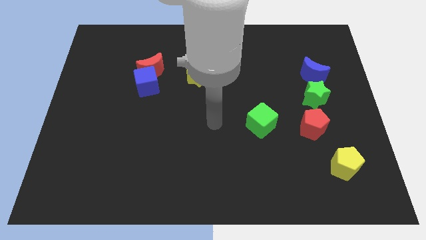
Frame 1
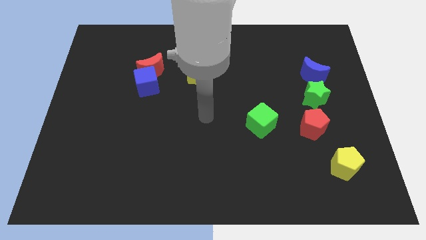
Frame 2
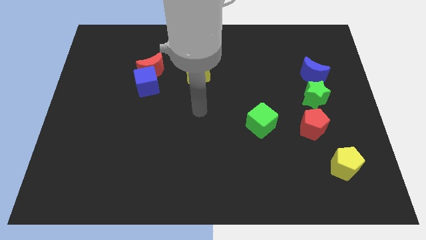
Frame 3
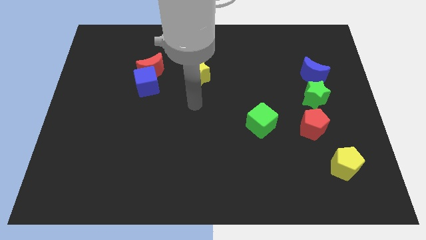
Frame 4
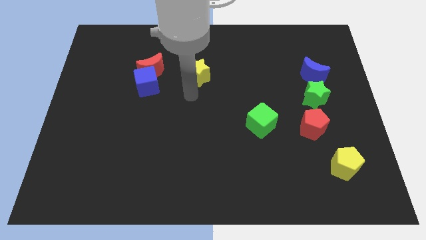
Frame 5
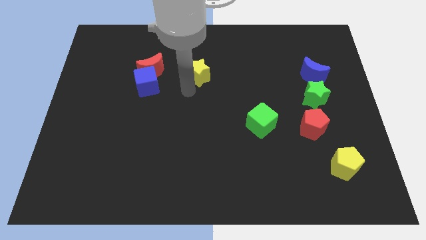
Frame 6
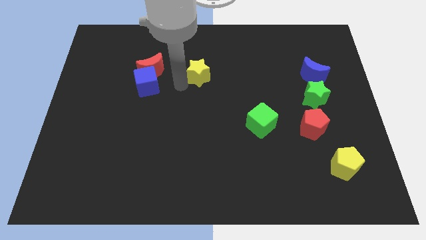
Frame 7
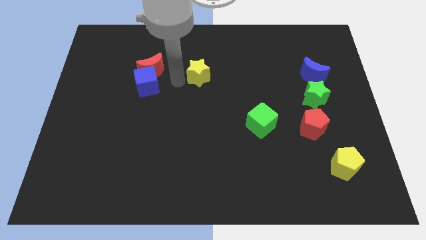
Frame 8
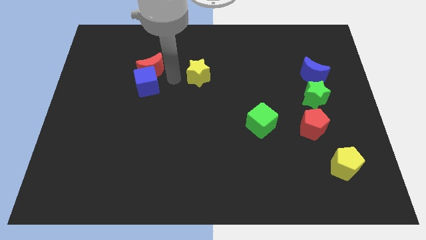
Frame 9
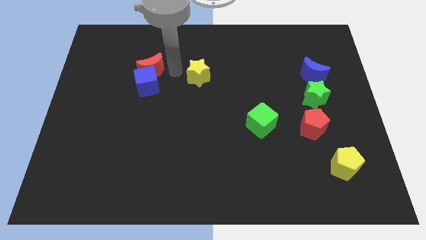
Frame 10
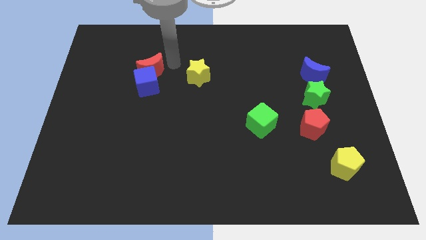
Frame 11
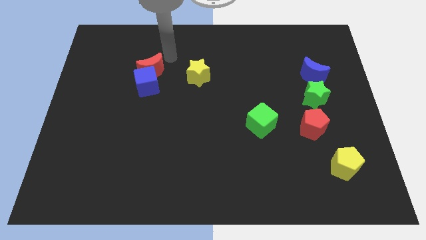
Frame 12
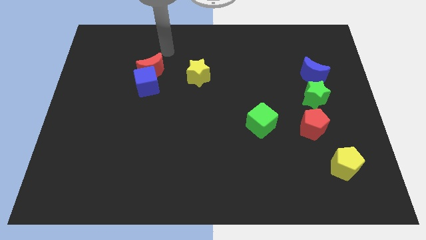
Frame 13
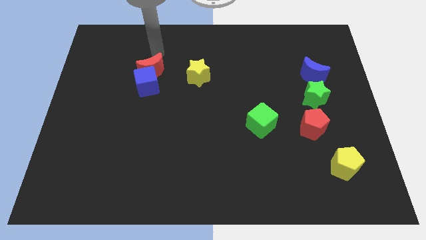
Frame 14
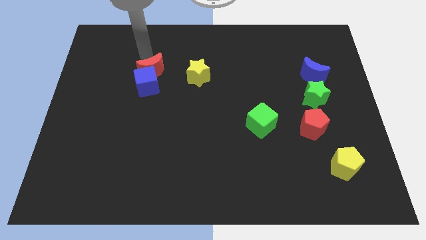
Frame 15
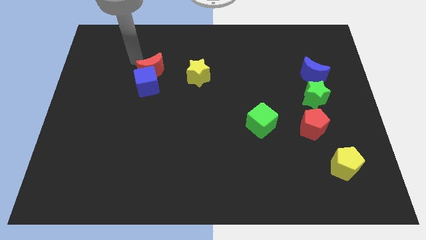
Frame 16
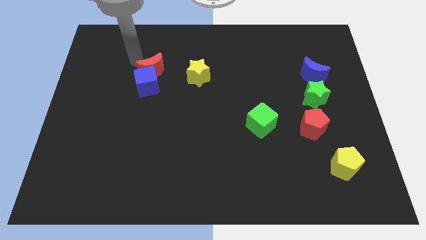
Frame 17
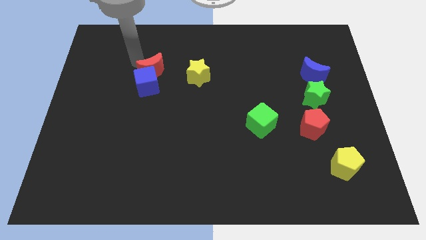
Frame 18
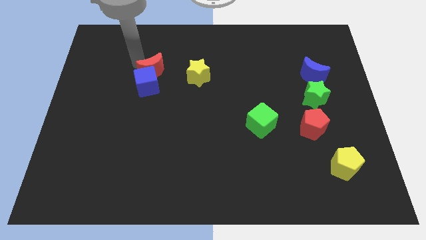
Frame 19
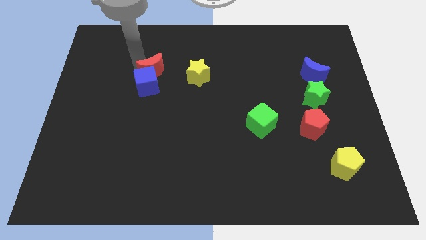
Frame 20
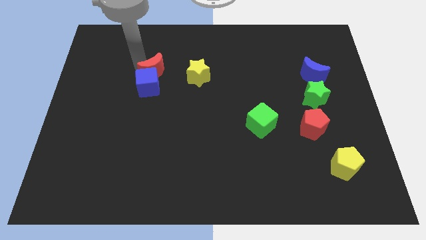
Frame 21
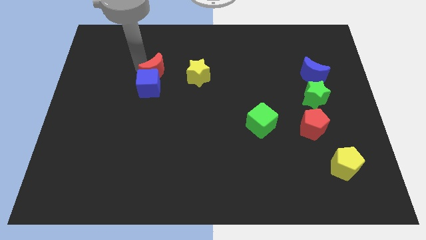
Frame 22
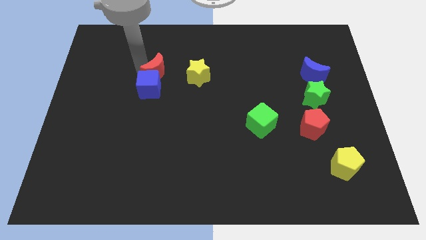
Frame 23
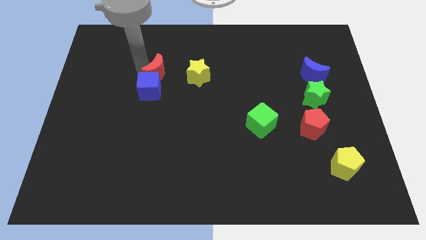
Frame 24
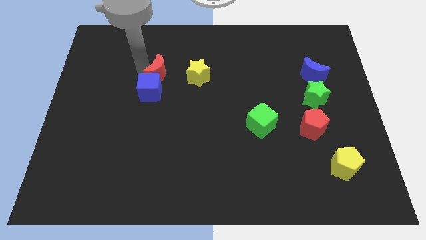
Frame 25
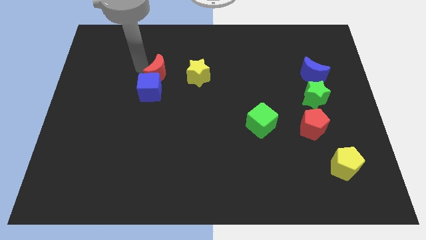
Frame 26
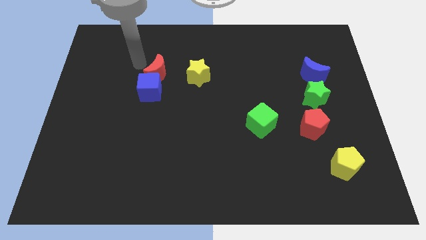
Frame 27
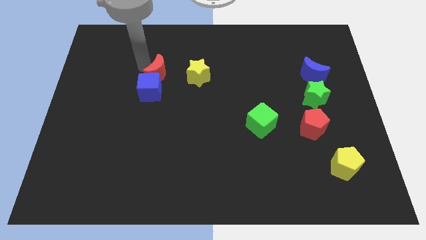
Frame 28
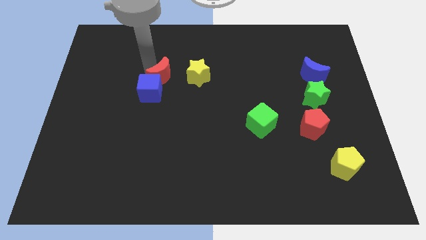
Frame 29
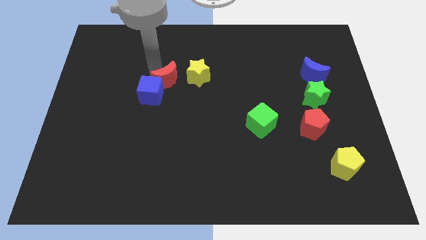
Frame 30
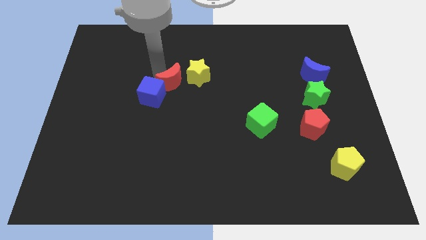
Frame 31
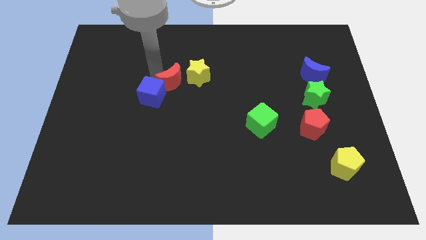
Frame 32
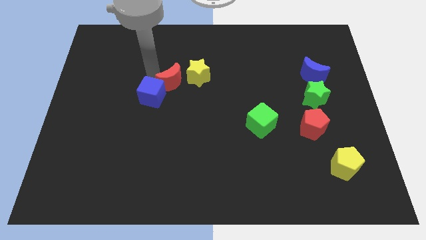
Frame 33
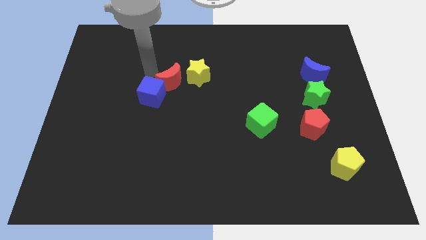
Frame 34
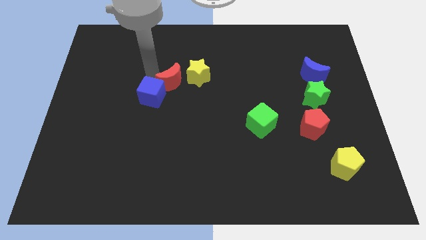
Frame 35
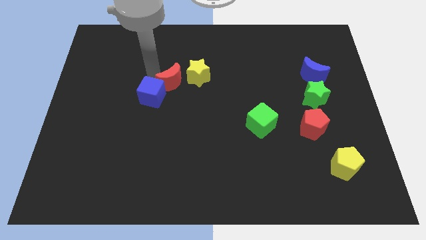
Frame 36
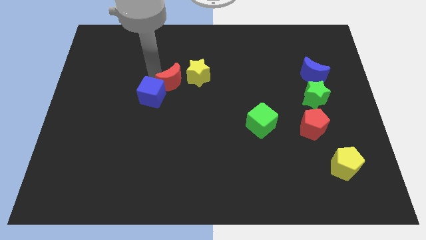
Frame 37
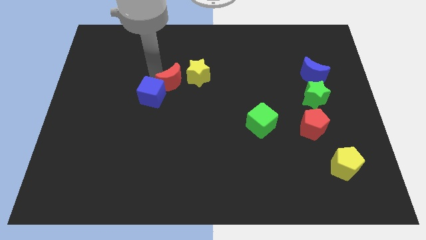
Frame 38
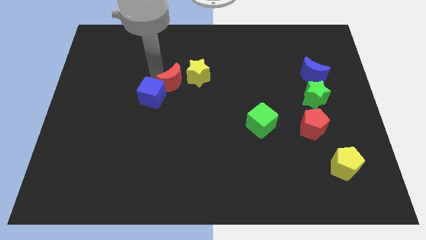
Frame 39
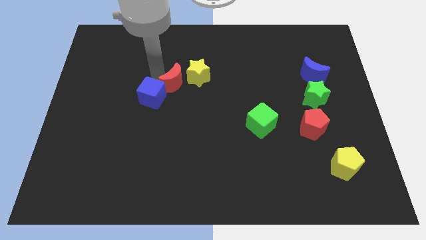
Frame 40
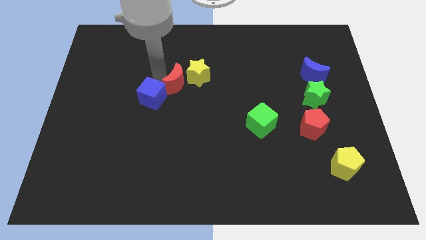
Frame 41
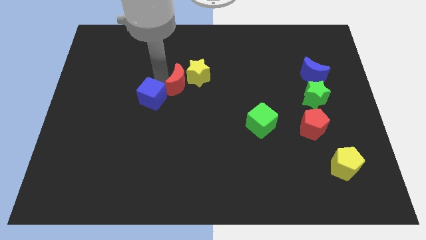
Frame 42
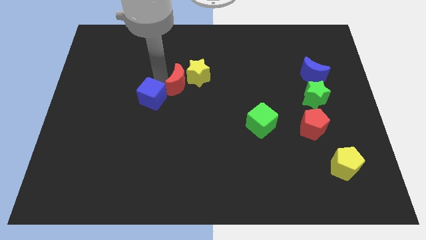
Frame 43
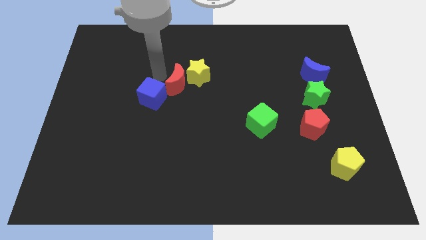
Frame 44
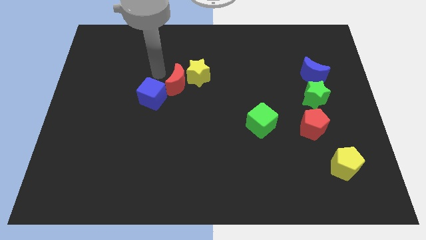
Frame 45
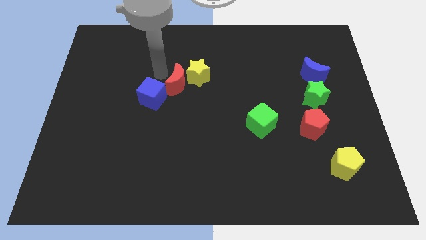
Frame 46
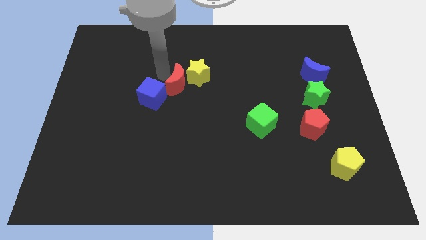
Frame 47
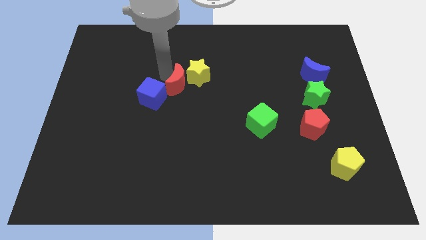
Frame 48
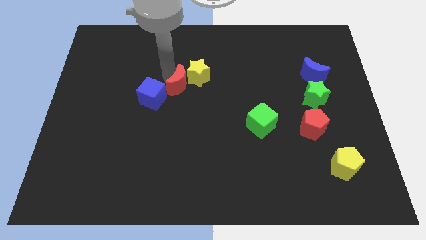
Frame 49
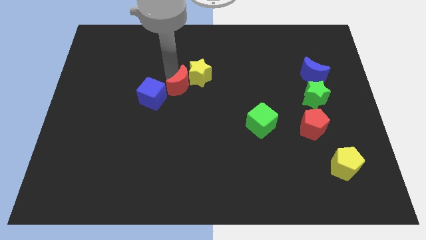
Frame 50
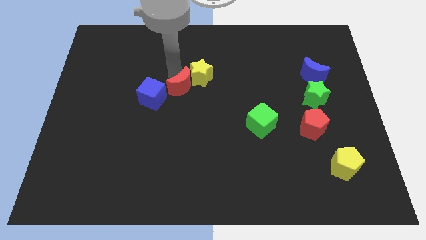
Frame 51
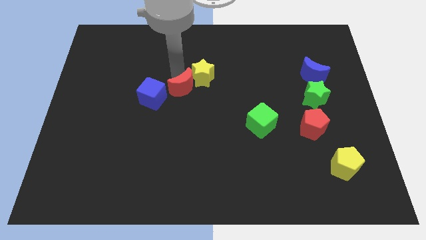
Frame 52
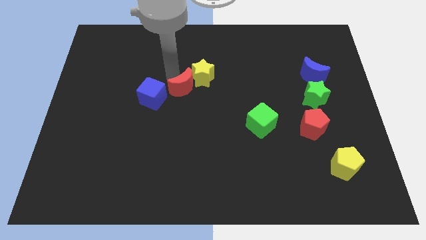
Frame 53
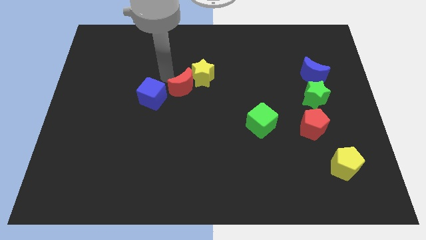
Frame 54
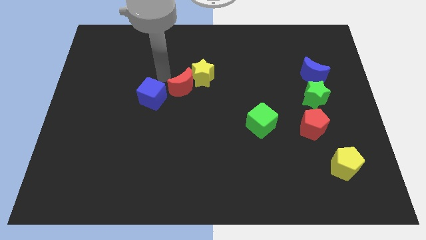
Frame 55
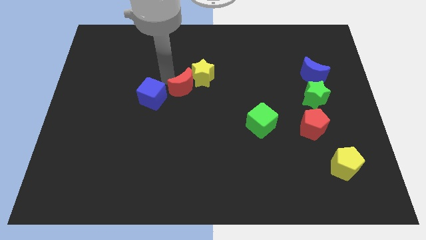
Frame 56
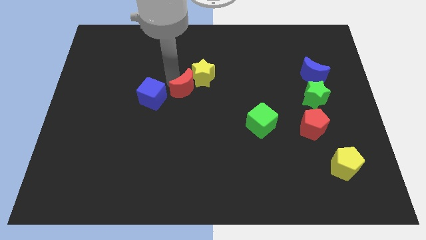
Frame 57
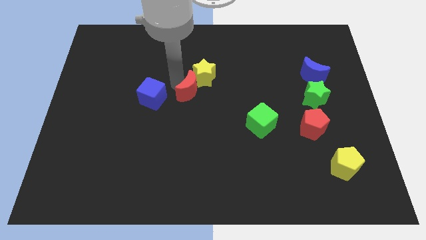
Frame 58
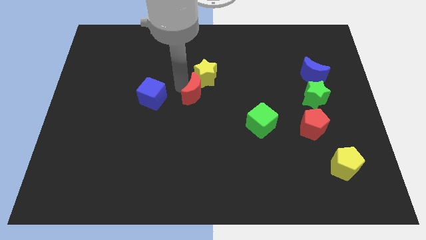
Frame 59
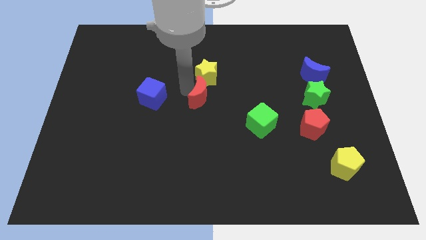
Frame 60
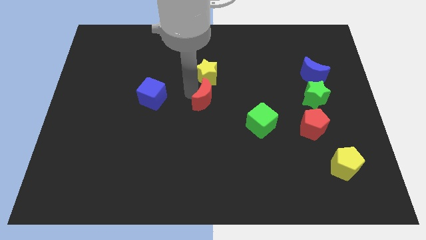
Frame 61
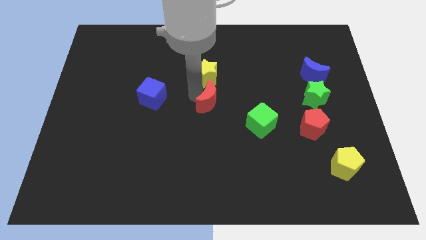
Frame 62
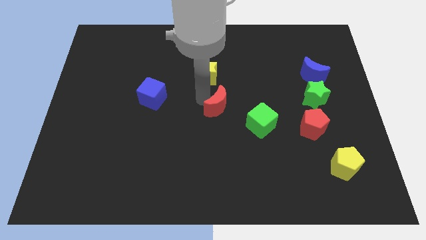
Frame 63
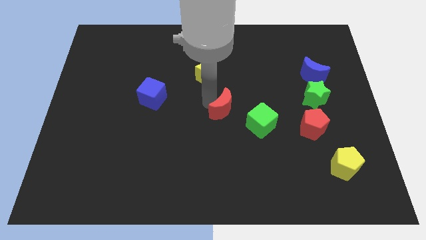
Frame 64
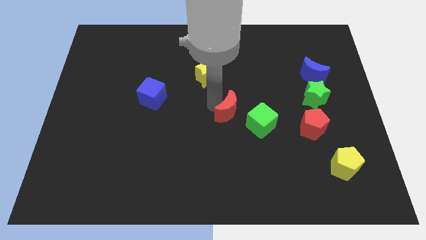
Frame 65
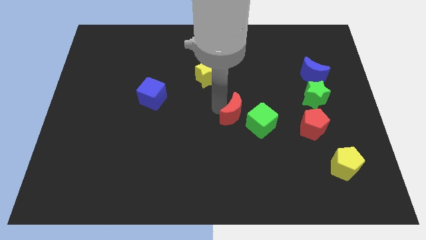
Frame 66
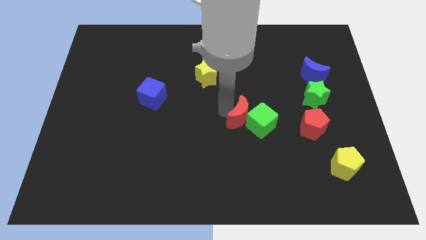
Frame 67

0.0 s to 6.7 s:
slide the red moon next to the green cube
